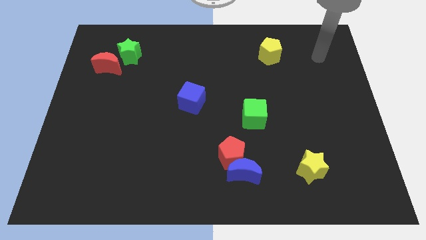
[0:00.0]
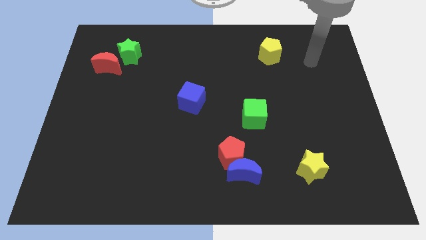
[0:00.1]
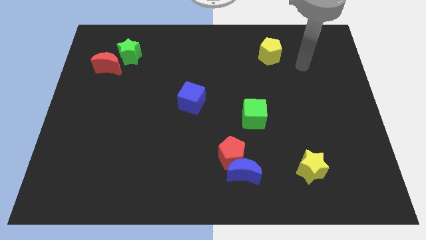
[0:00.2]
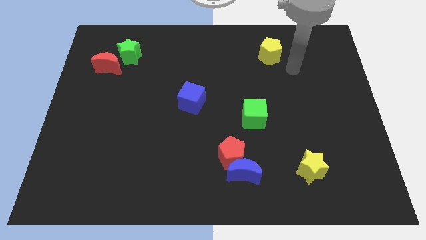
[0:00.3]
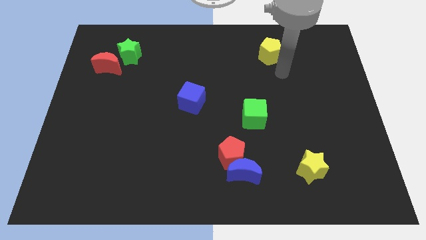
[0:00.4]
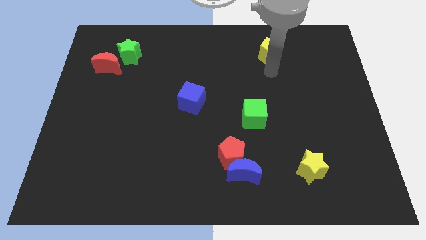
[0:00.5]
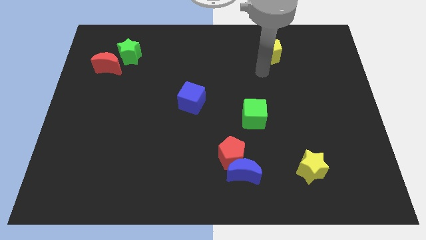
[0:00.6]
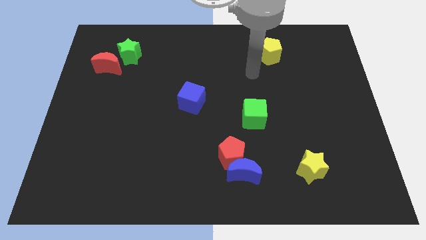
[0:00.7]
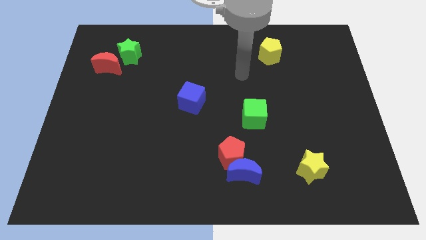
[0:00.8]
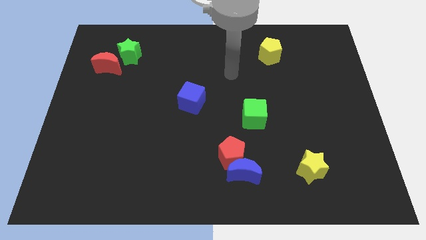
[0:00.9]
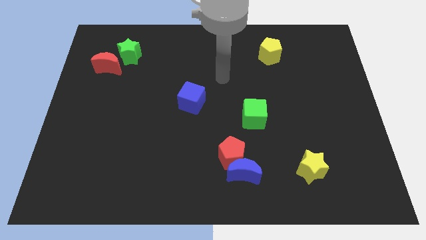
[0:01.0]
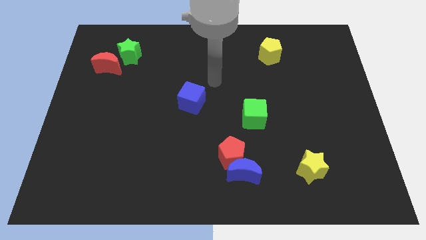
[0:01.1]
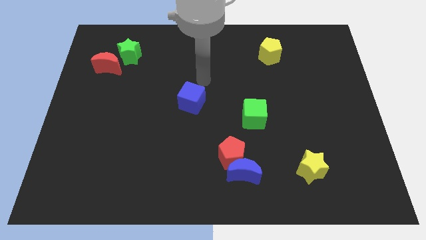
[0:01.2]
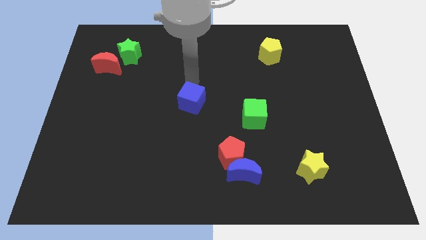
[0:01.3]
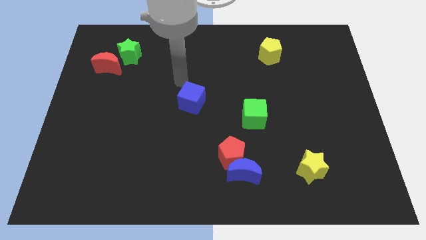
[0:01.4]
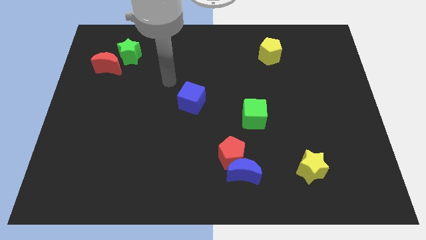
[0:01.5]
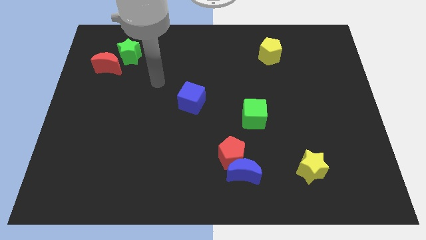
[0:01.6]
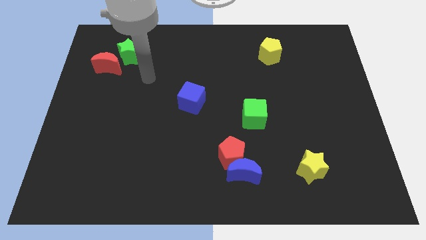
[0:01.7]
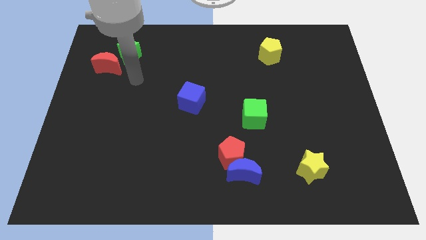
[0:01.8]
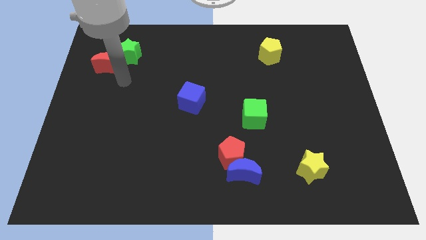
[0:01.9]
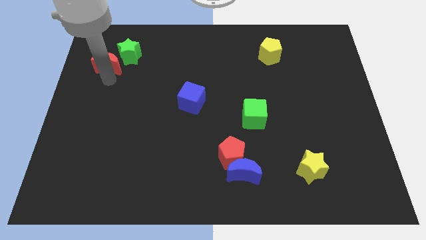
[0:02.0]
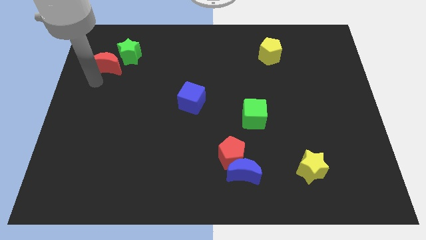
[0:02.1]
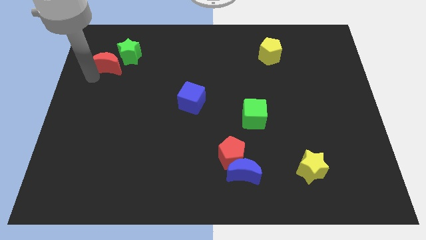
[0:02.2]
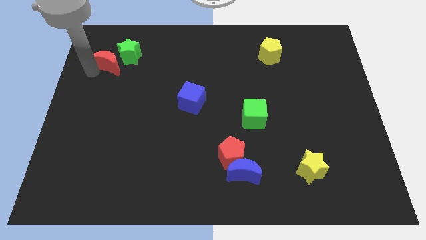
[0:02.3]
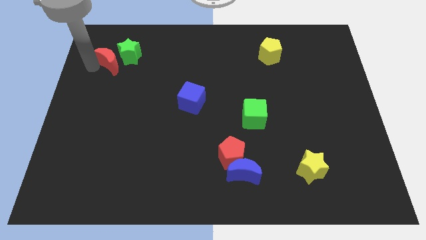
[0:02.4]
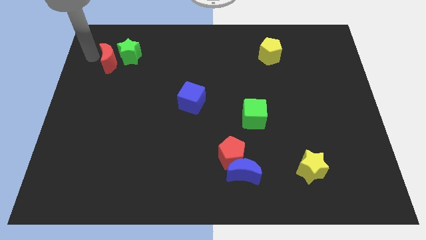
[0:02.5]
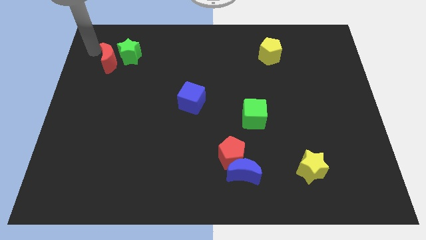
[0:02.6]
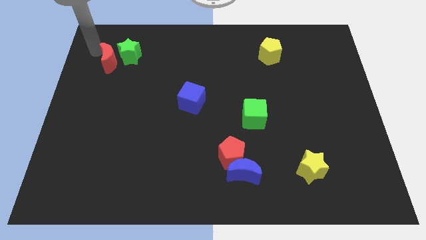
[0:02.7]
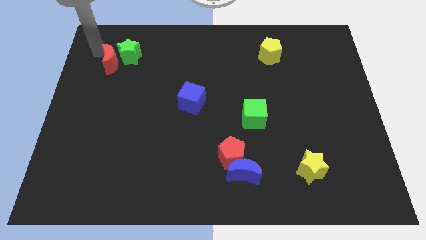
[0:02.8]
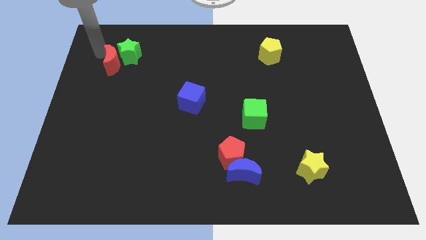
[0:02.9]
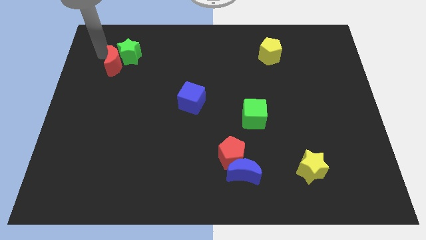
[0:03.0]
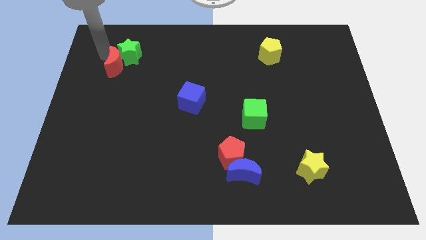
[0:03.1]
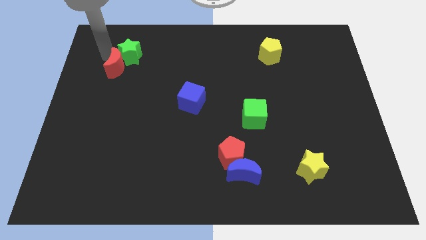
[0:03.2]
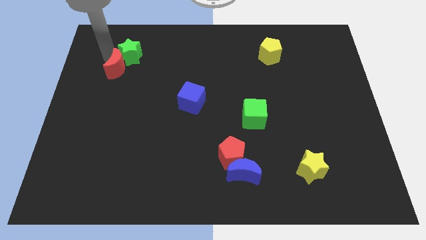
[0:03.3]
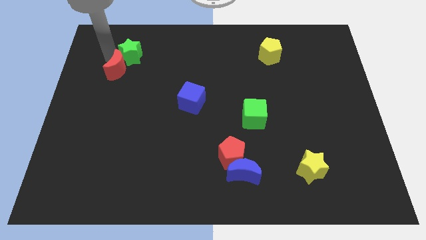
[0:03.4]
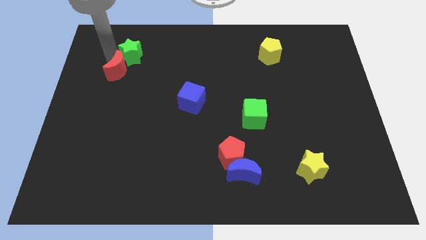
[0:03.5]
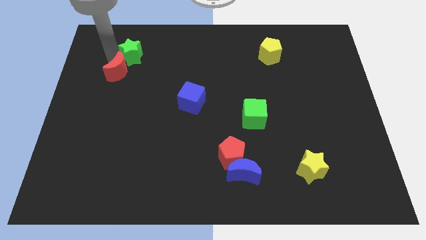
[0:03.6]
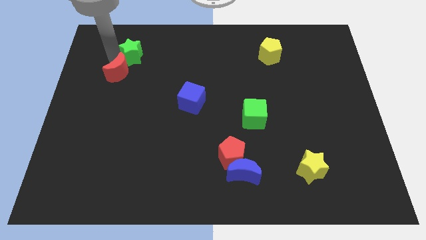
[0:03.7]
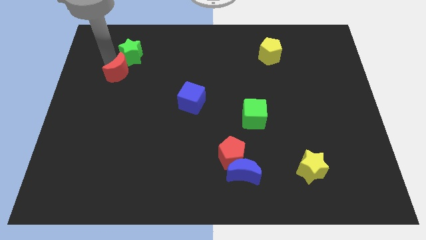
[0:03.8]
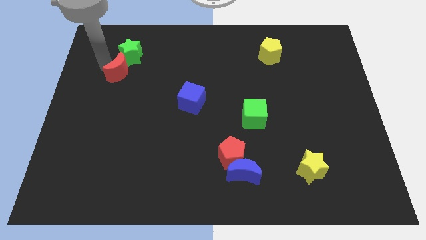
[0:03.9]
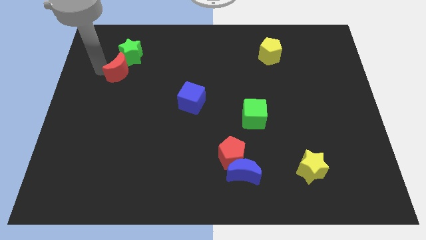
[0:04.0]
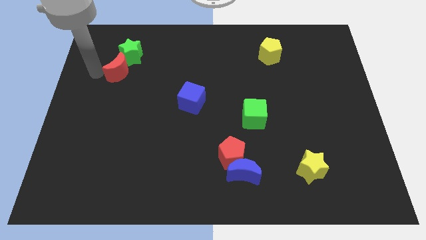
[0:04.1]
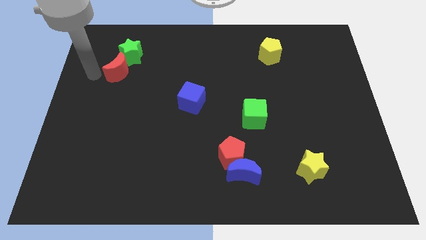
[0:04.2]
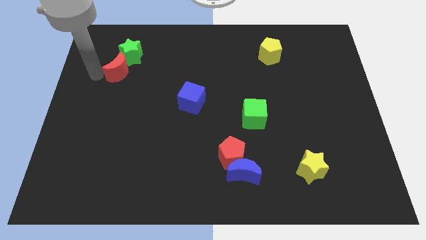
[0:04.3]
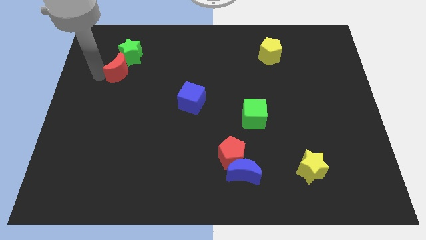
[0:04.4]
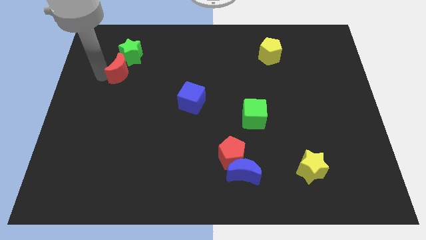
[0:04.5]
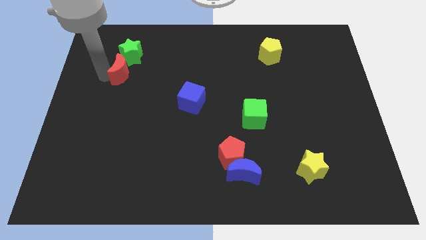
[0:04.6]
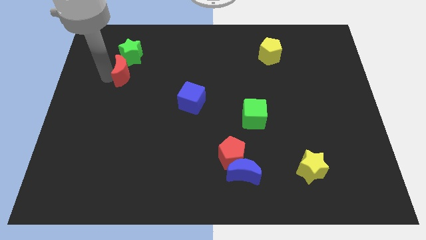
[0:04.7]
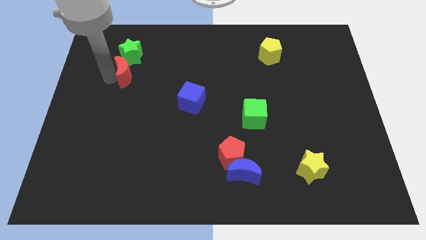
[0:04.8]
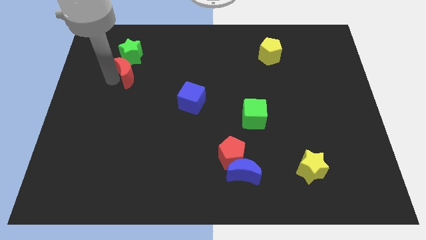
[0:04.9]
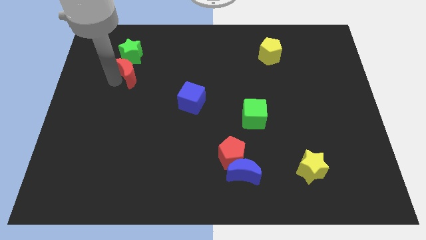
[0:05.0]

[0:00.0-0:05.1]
slide the red moon to the bottom right of the green star

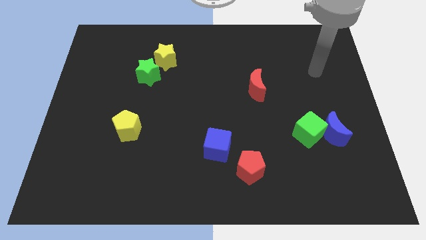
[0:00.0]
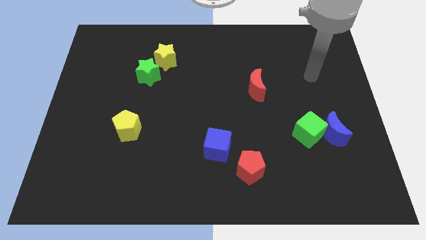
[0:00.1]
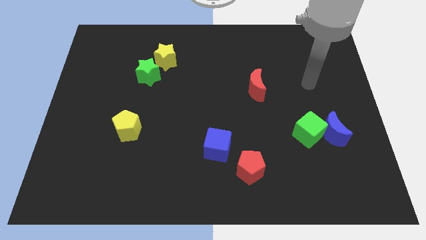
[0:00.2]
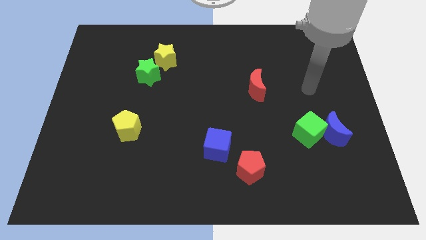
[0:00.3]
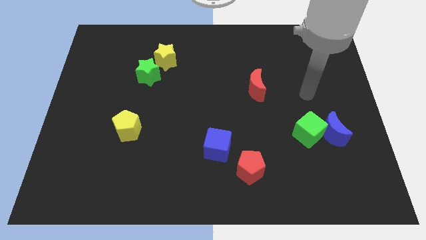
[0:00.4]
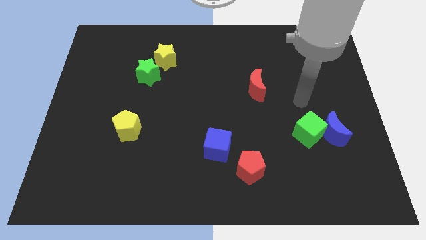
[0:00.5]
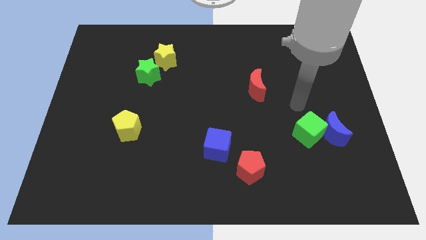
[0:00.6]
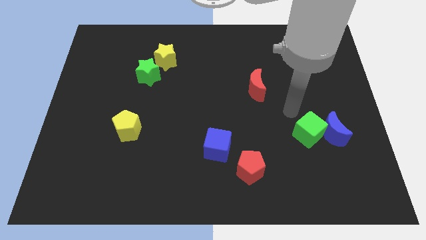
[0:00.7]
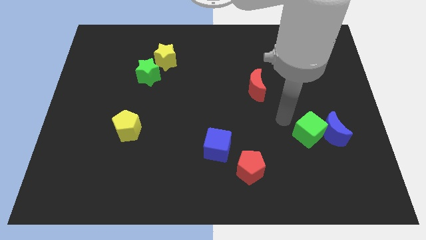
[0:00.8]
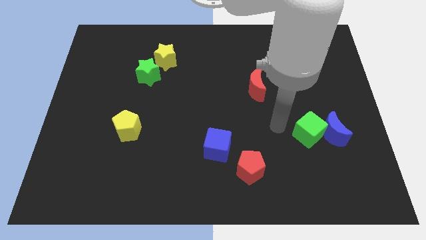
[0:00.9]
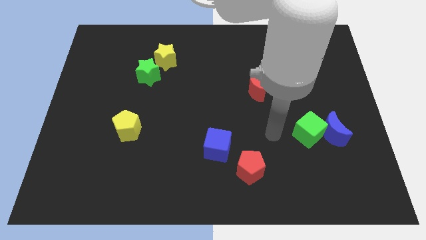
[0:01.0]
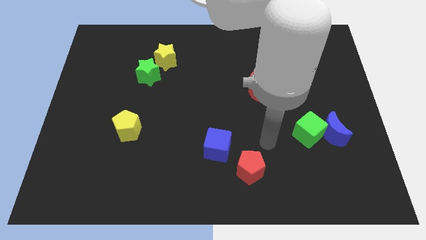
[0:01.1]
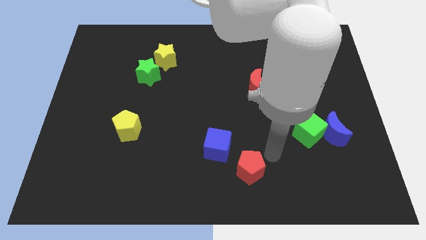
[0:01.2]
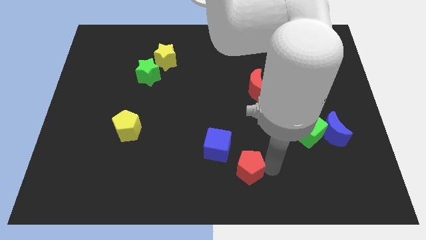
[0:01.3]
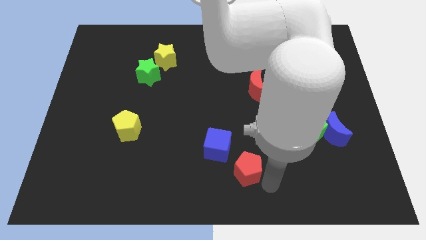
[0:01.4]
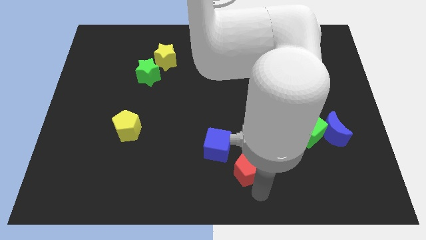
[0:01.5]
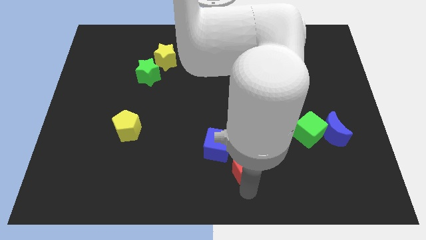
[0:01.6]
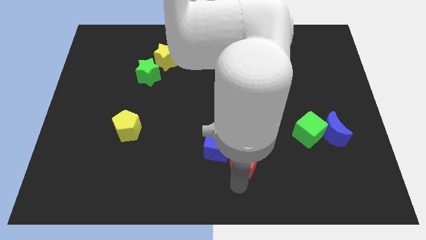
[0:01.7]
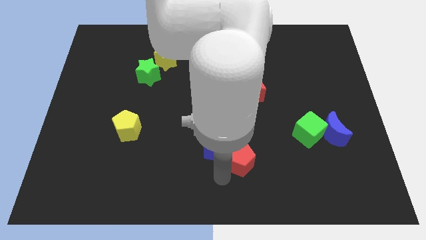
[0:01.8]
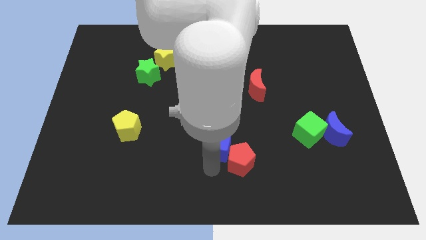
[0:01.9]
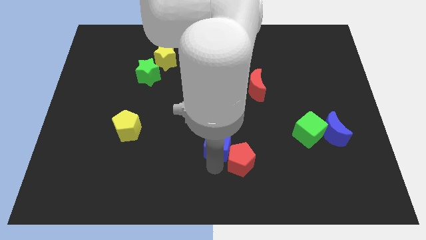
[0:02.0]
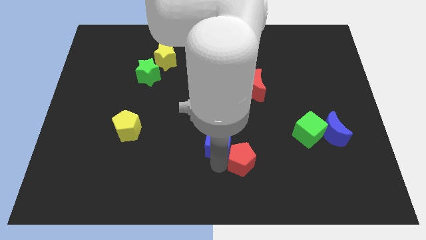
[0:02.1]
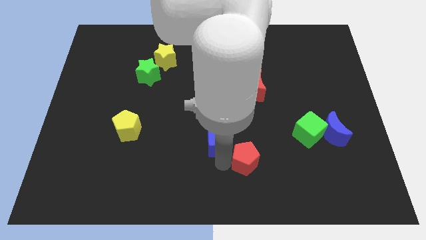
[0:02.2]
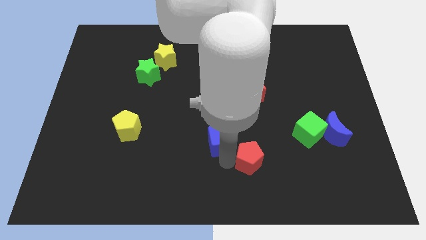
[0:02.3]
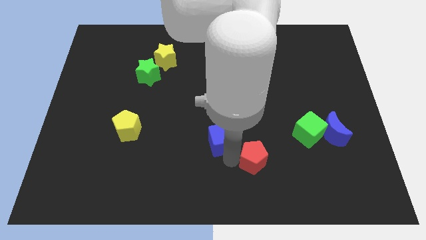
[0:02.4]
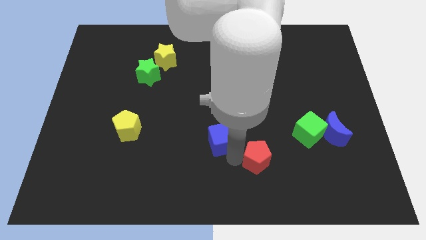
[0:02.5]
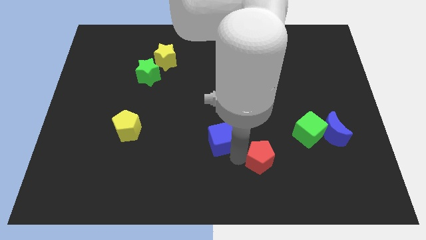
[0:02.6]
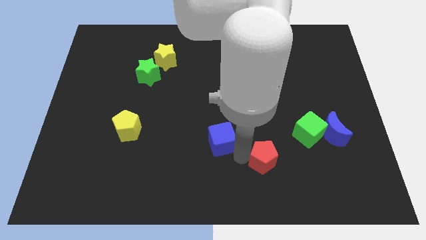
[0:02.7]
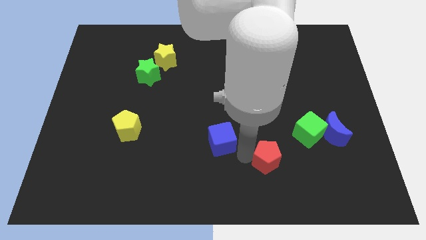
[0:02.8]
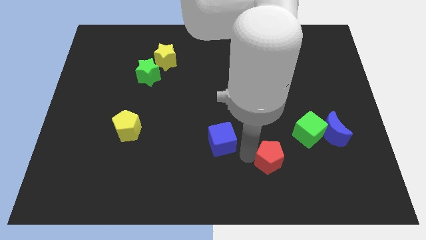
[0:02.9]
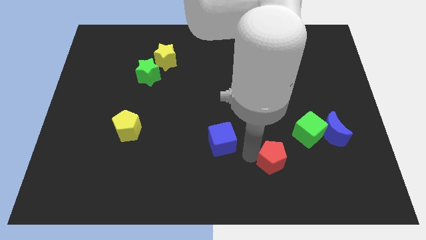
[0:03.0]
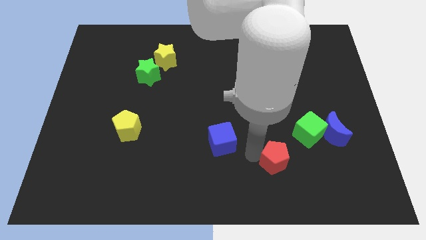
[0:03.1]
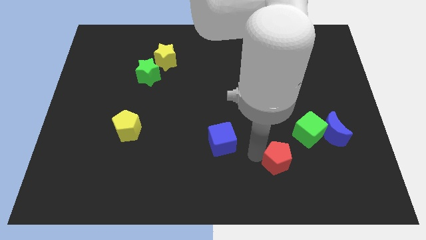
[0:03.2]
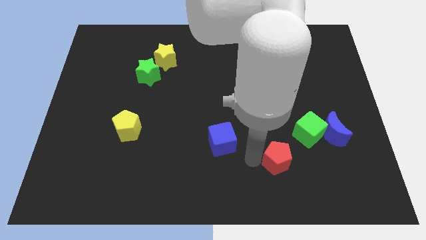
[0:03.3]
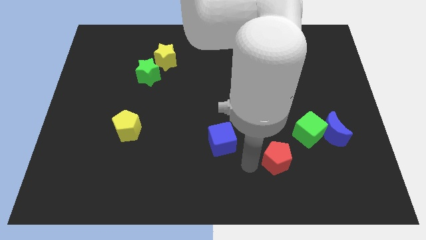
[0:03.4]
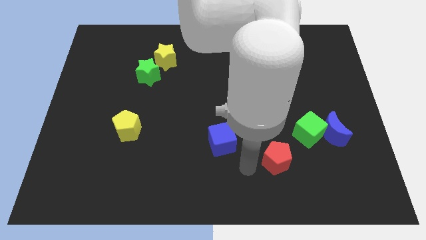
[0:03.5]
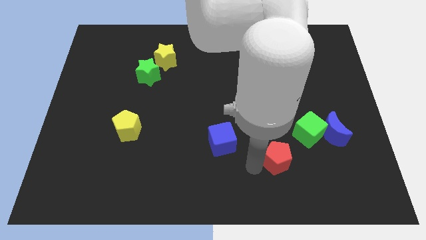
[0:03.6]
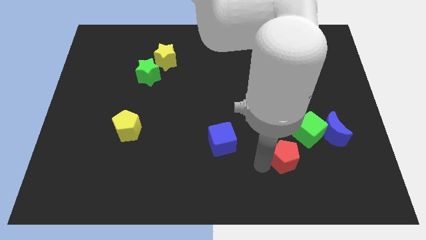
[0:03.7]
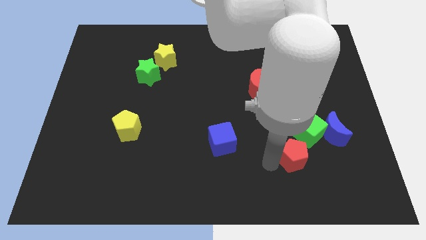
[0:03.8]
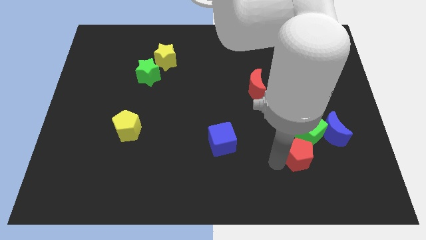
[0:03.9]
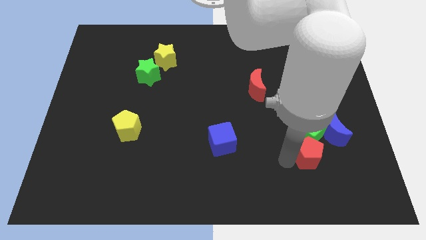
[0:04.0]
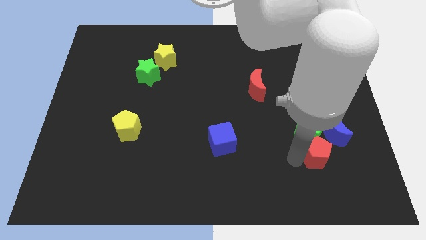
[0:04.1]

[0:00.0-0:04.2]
push the red pentagon diagonally down and to the right of the green cube
